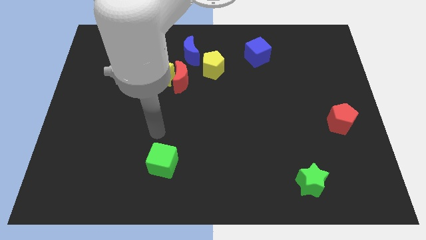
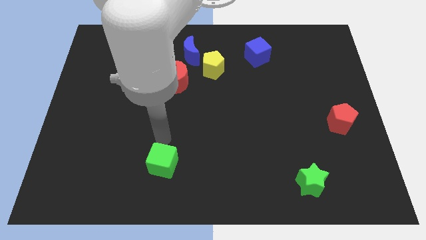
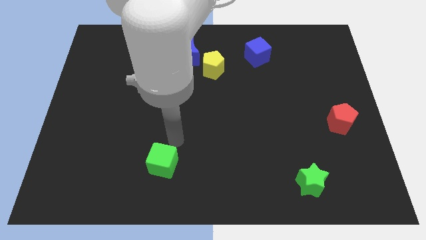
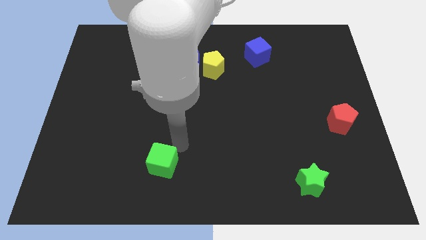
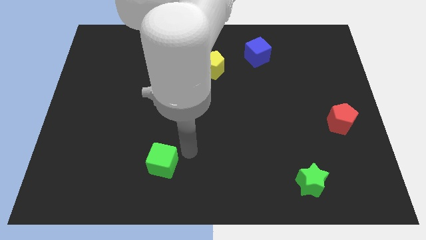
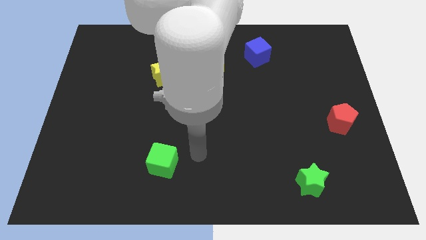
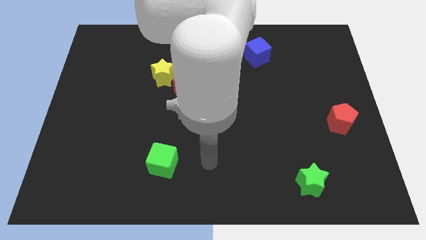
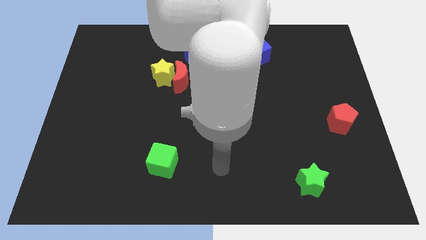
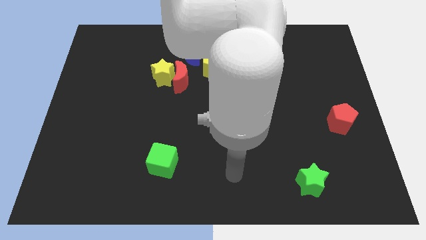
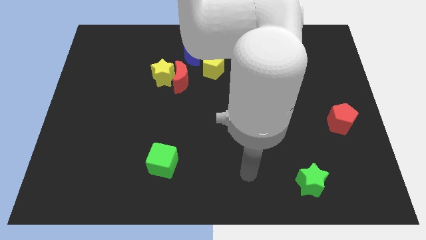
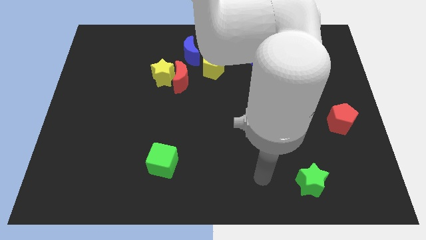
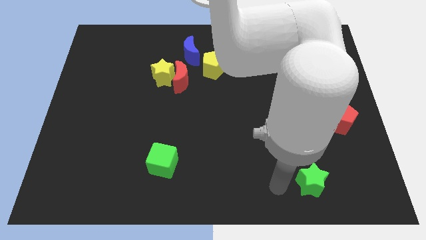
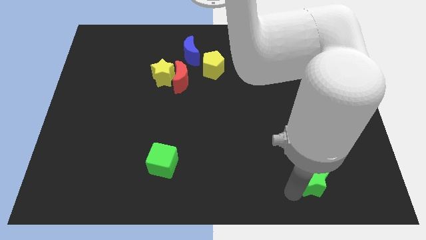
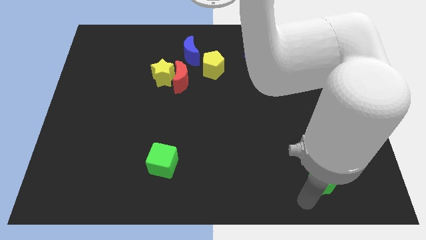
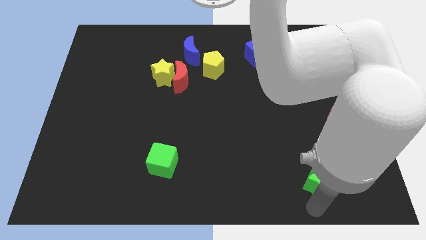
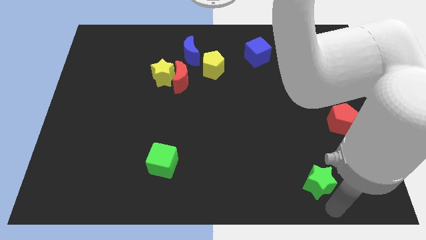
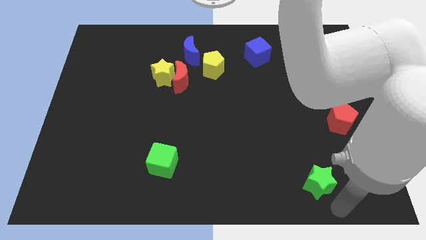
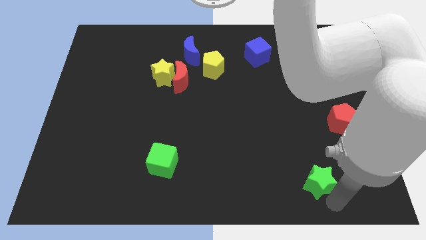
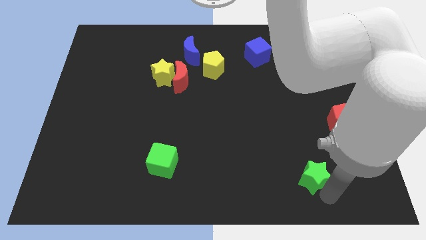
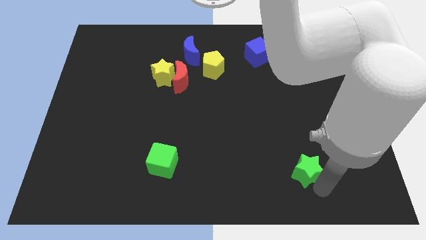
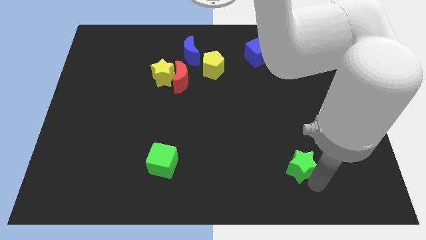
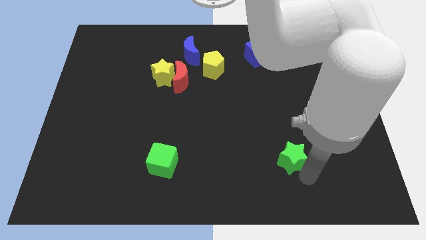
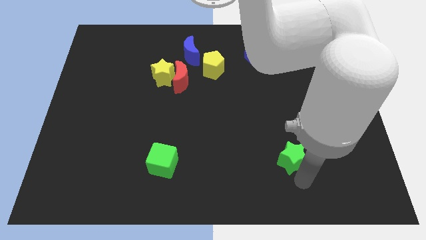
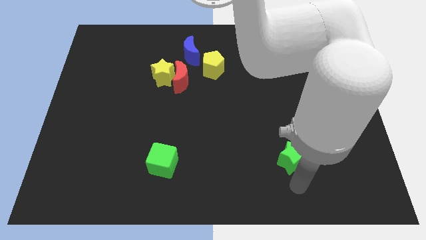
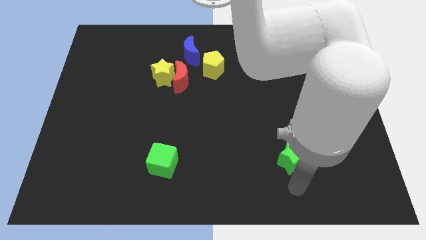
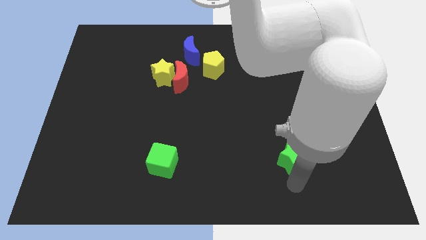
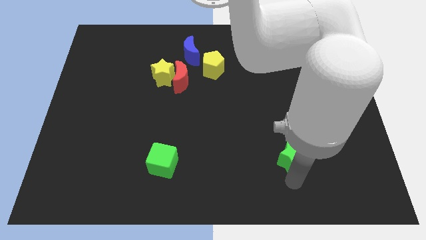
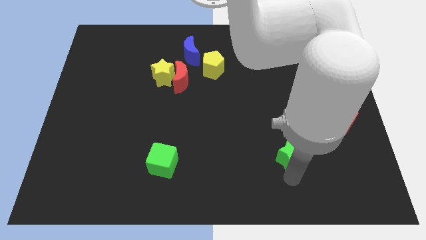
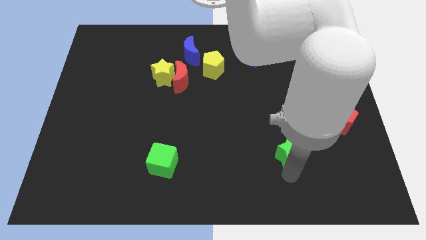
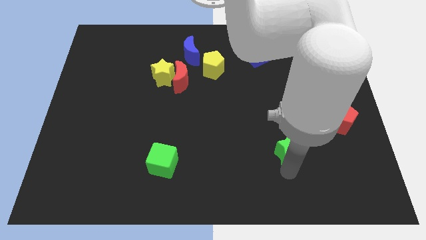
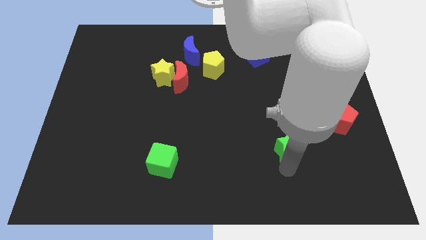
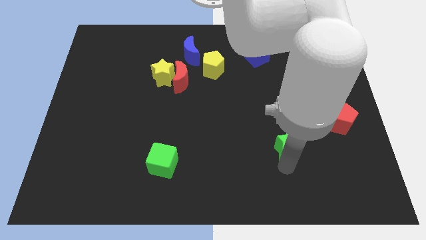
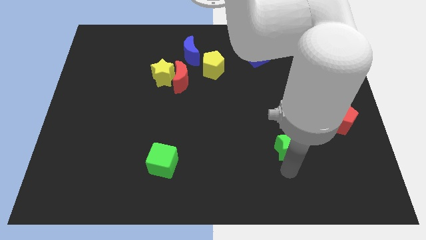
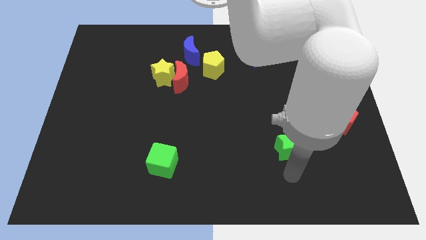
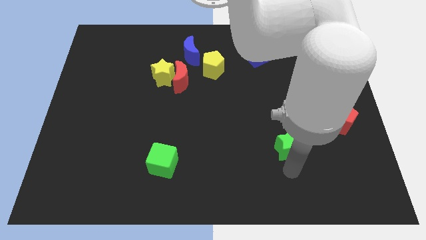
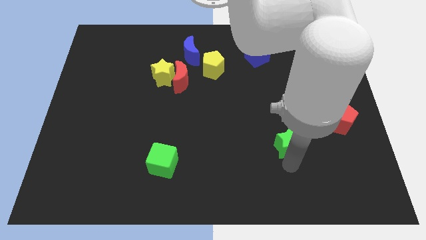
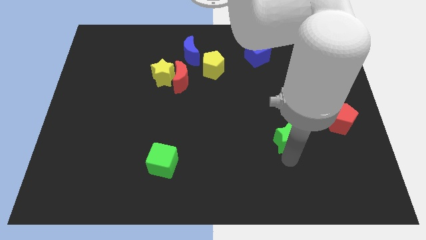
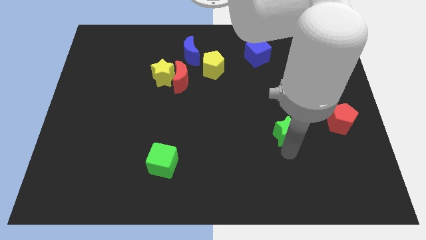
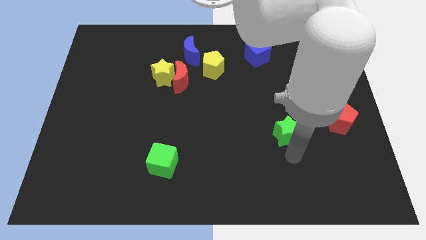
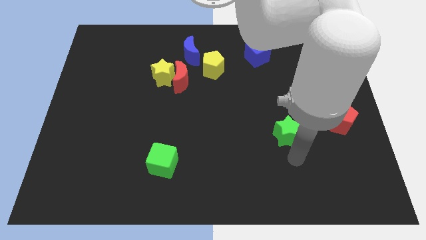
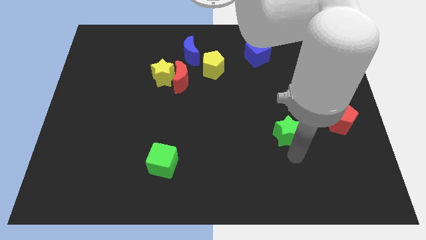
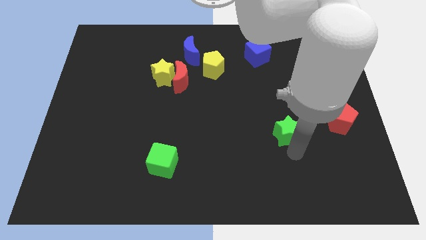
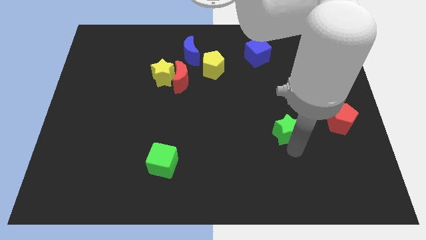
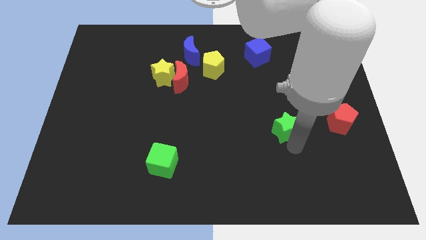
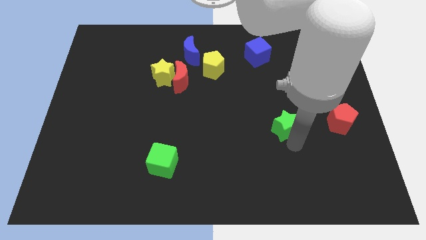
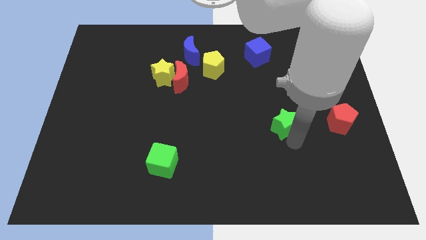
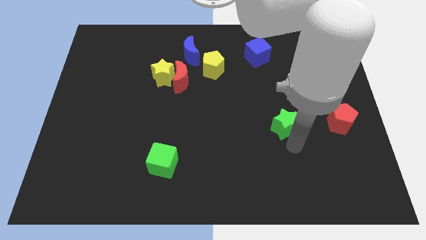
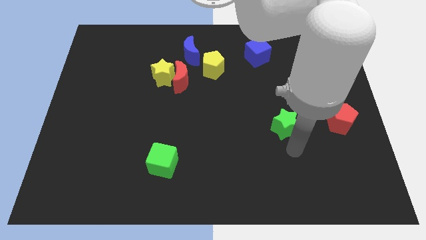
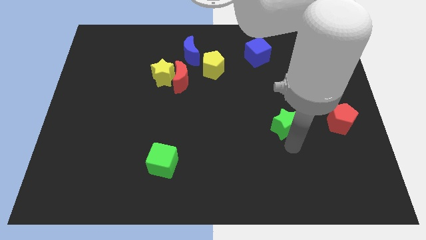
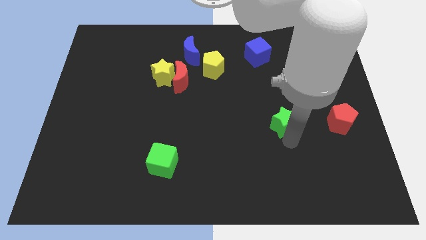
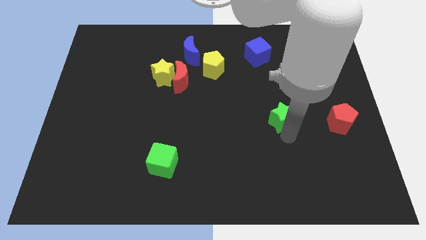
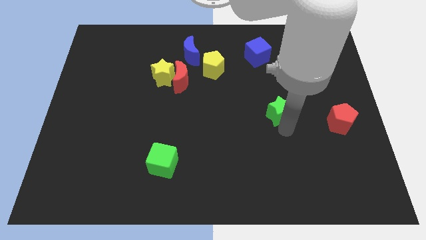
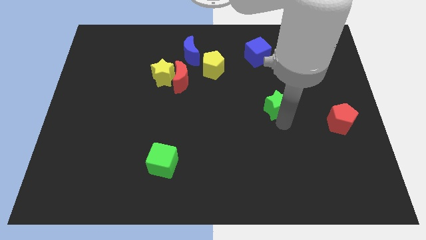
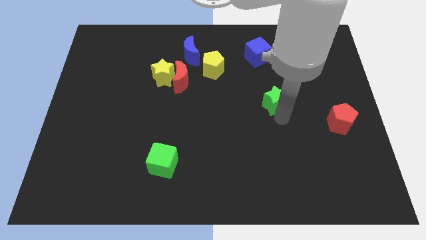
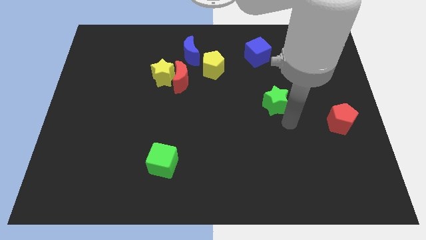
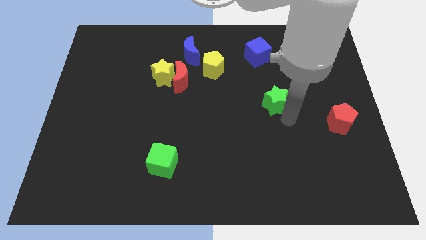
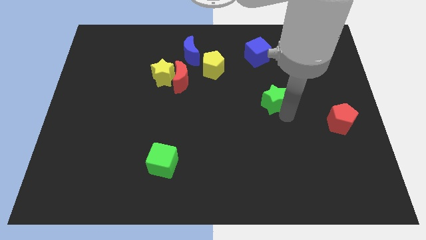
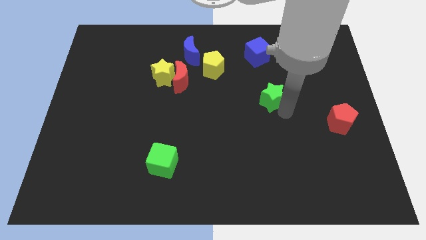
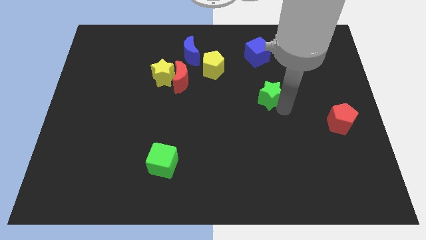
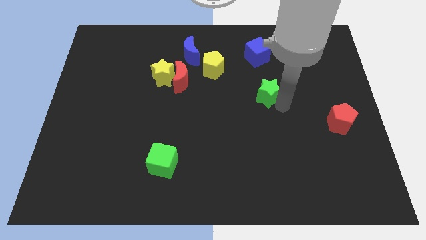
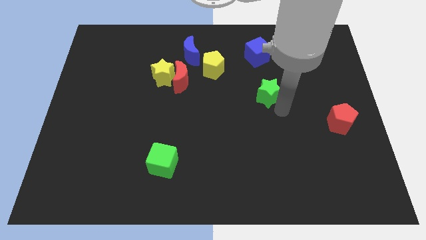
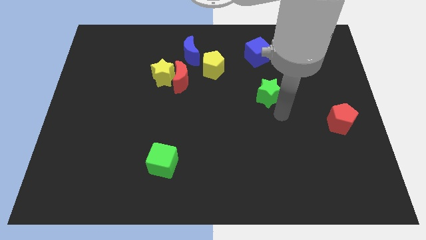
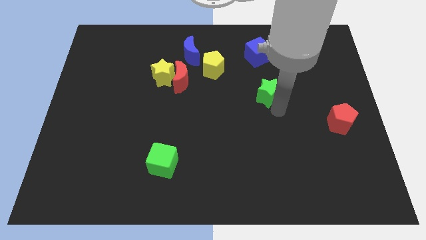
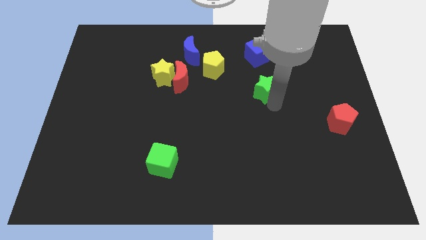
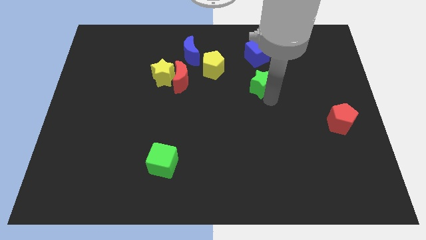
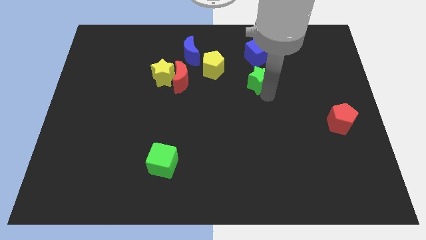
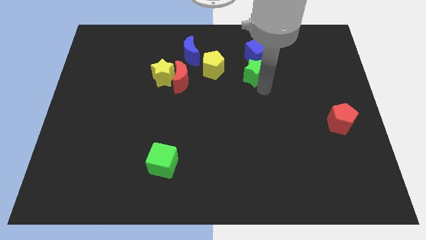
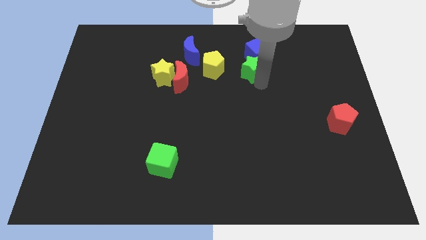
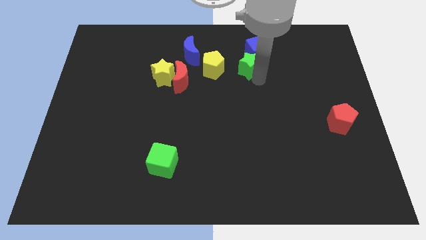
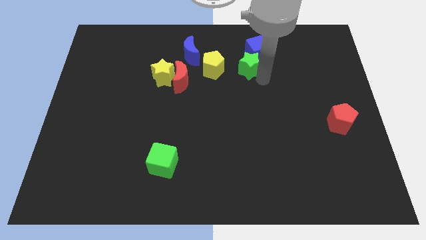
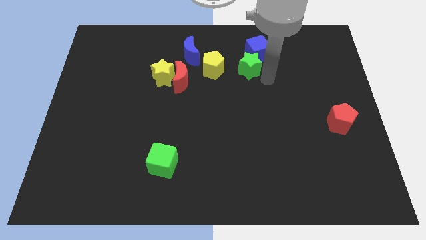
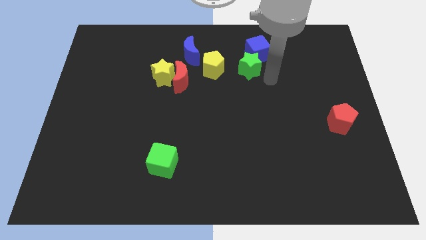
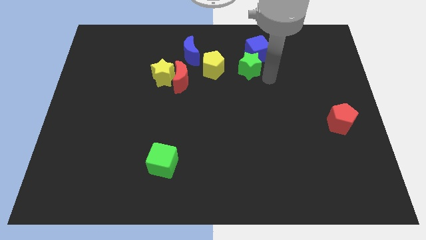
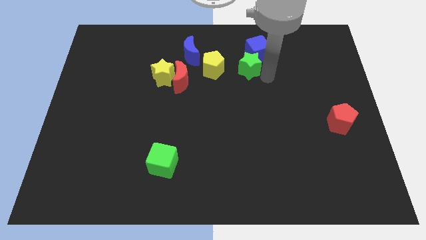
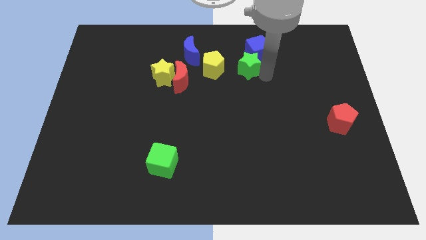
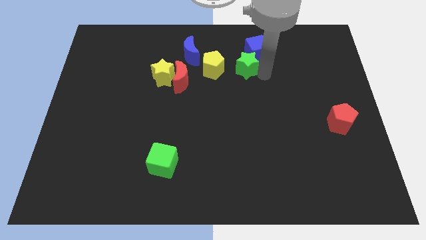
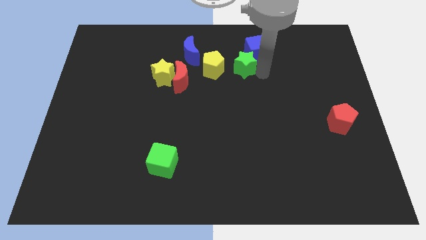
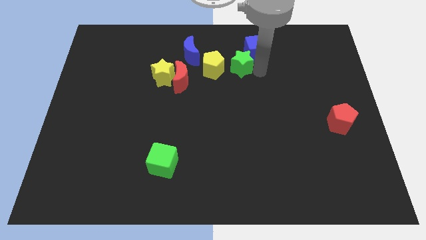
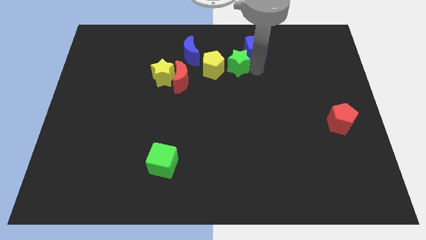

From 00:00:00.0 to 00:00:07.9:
move the green star just left of the blue cube
